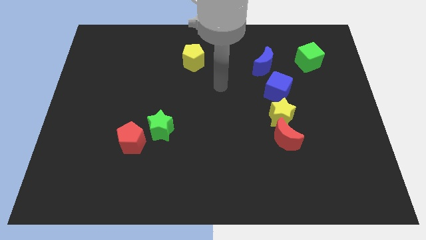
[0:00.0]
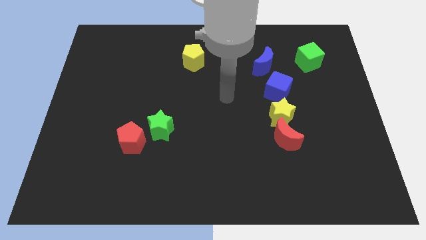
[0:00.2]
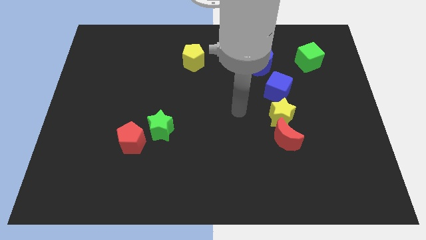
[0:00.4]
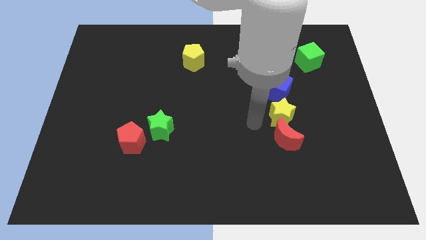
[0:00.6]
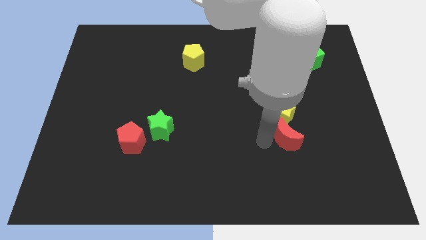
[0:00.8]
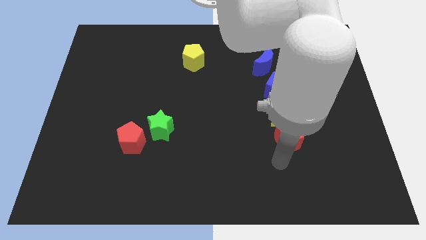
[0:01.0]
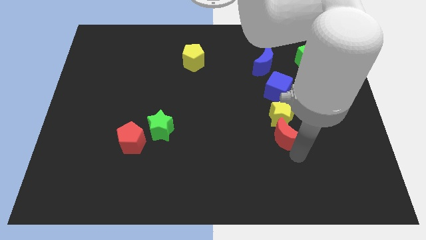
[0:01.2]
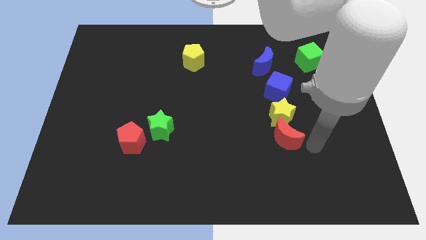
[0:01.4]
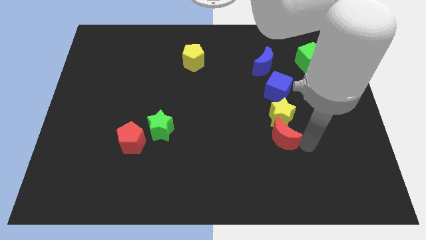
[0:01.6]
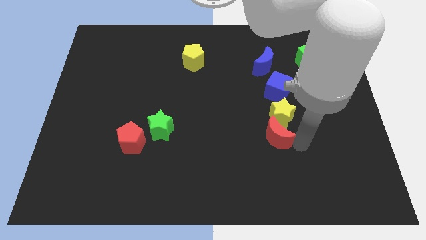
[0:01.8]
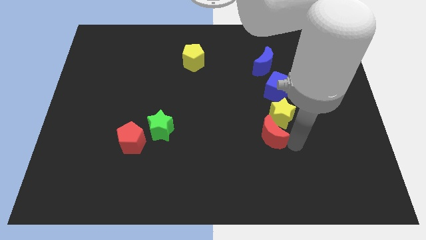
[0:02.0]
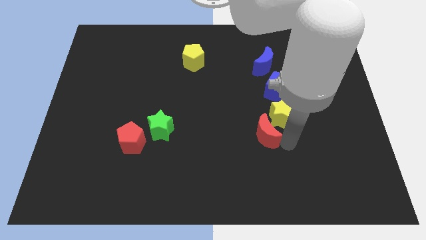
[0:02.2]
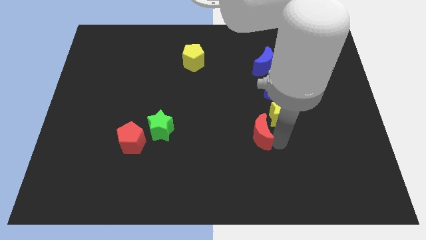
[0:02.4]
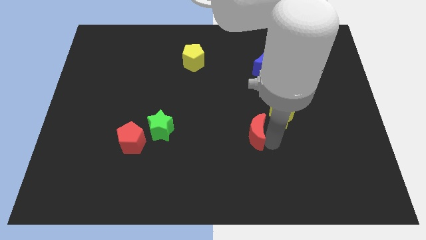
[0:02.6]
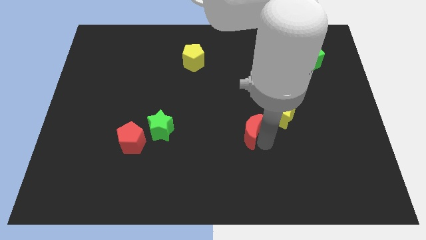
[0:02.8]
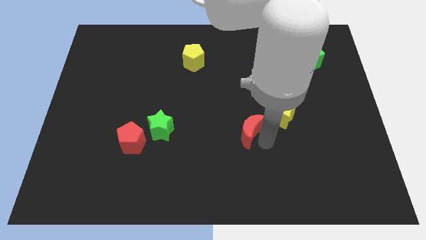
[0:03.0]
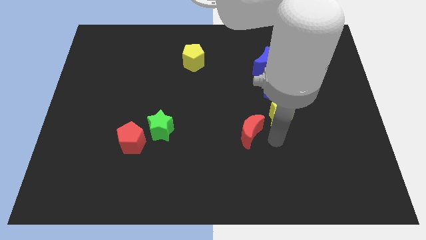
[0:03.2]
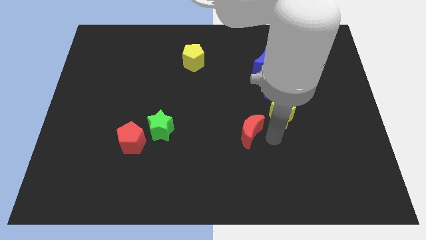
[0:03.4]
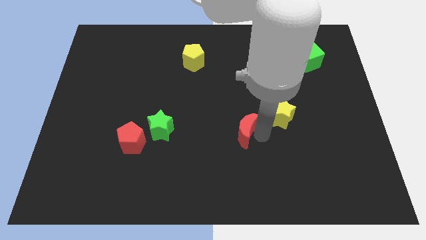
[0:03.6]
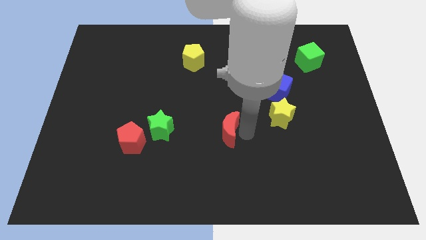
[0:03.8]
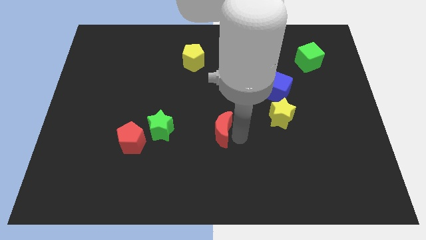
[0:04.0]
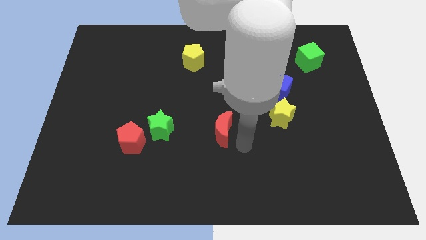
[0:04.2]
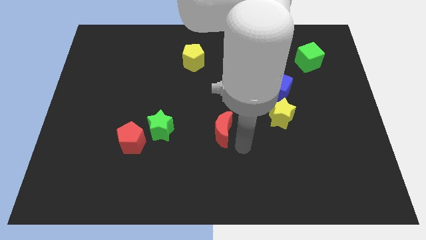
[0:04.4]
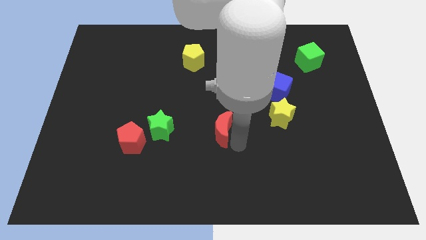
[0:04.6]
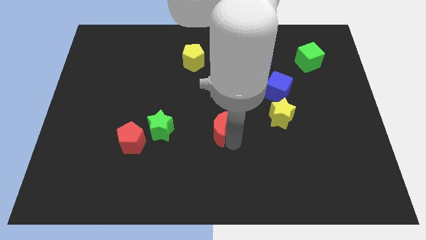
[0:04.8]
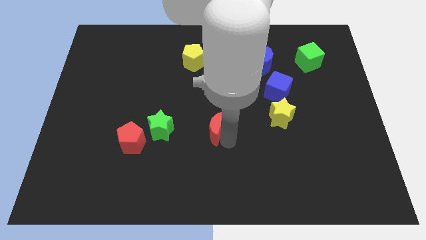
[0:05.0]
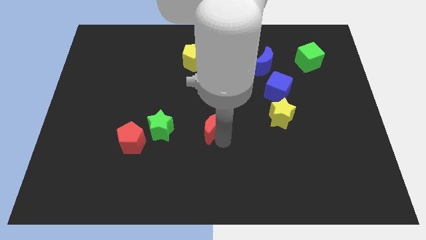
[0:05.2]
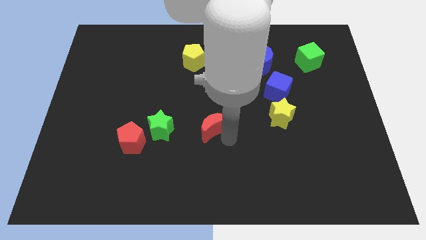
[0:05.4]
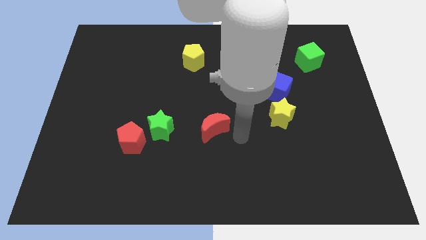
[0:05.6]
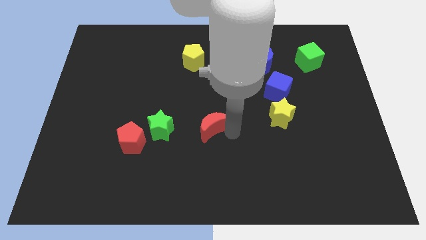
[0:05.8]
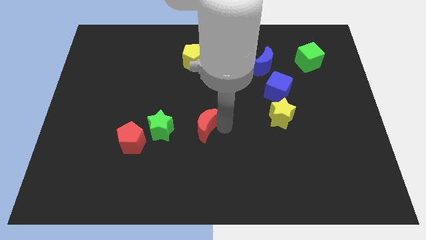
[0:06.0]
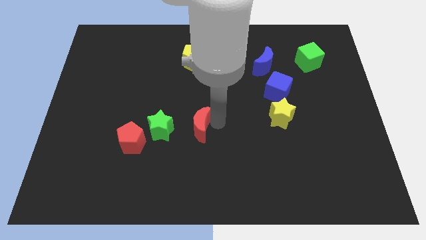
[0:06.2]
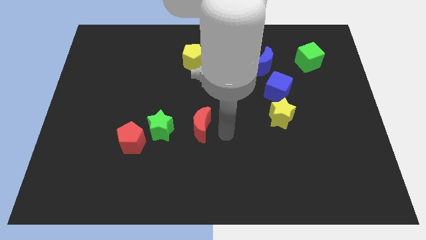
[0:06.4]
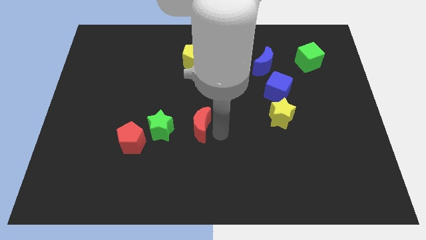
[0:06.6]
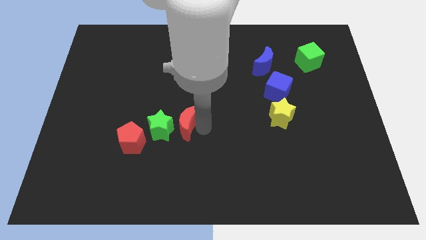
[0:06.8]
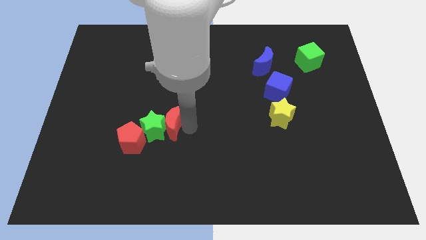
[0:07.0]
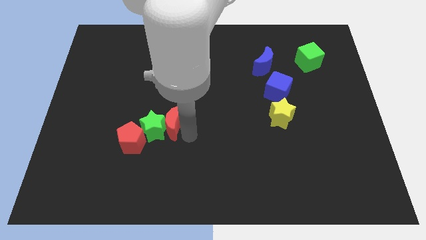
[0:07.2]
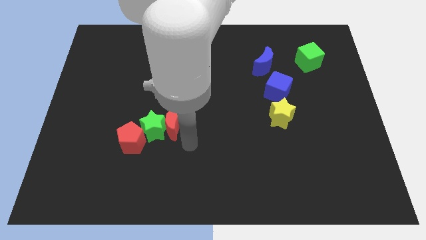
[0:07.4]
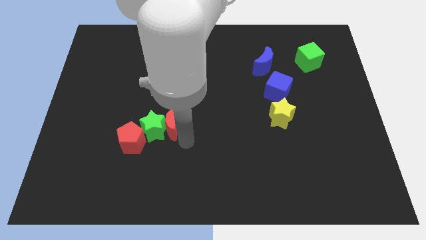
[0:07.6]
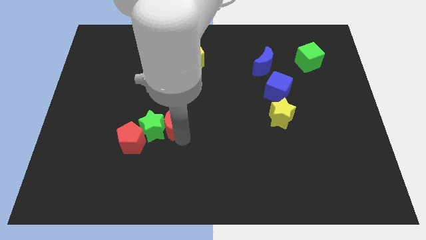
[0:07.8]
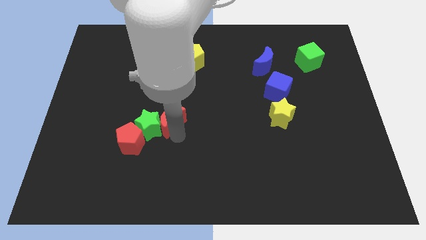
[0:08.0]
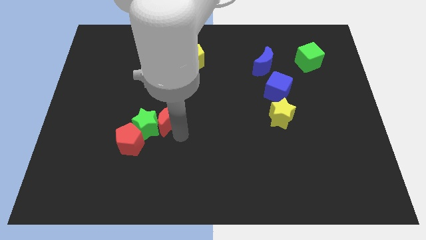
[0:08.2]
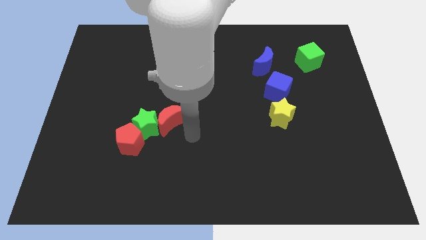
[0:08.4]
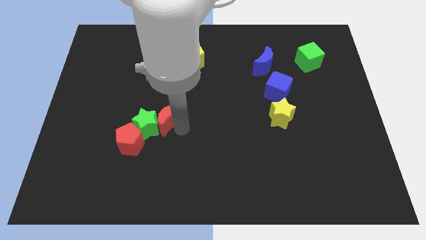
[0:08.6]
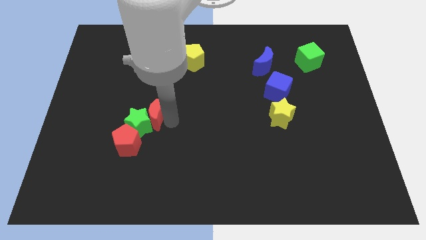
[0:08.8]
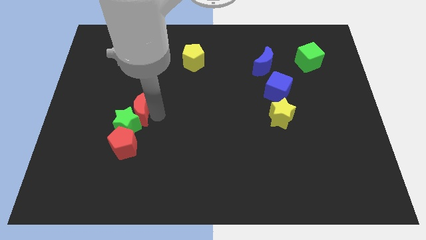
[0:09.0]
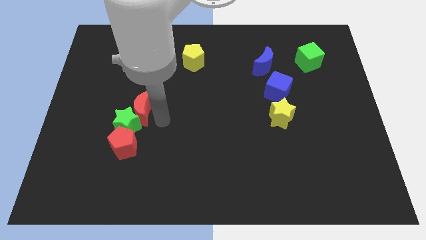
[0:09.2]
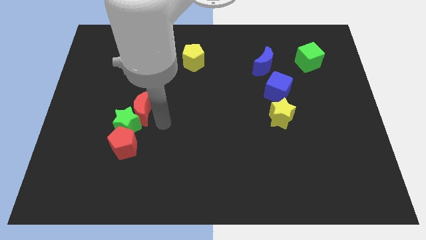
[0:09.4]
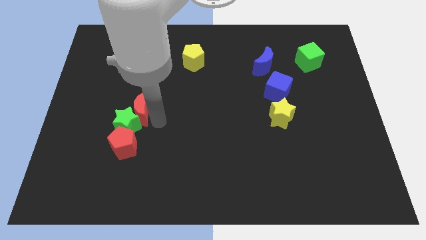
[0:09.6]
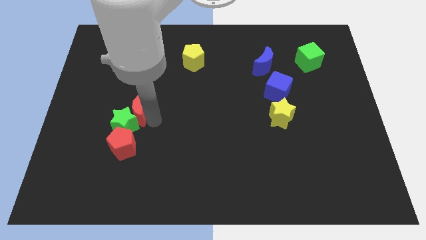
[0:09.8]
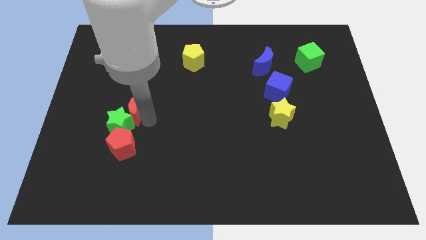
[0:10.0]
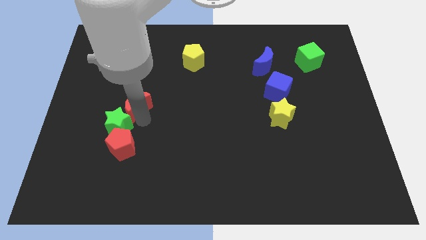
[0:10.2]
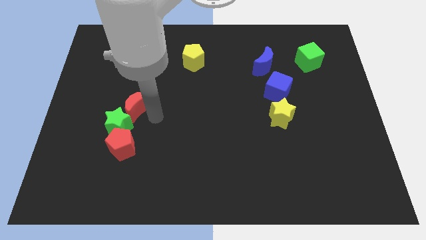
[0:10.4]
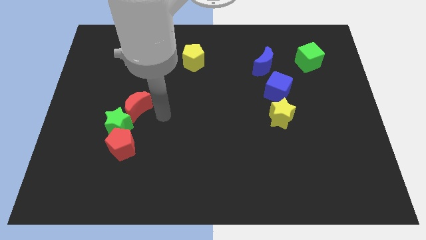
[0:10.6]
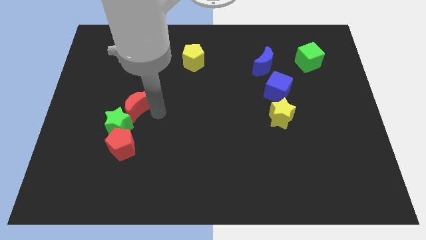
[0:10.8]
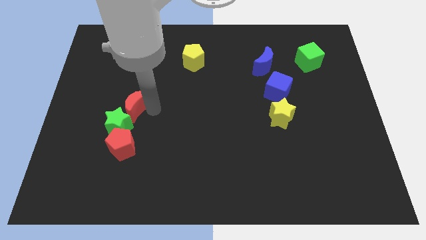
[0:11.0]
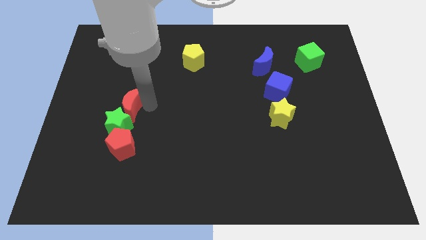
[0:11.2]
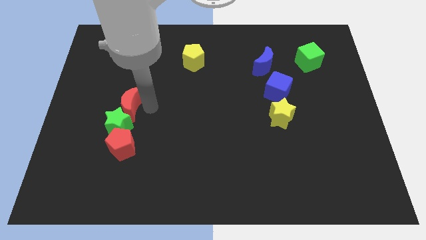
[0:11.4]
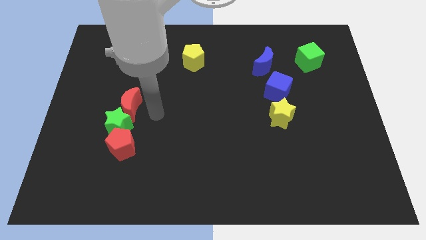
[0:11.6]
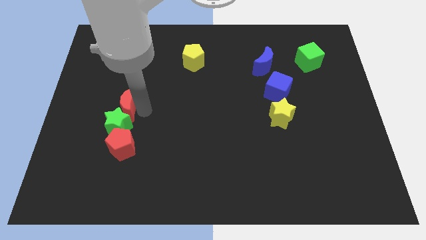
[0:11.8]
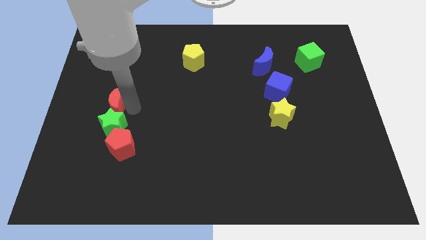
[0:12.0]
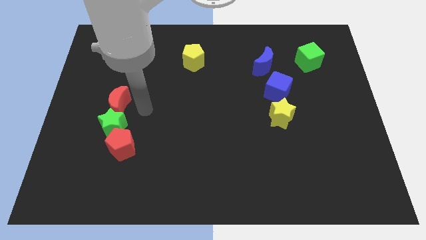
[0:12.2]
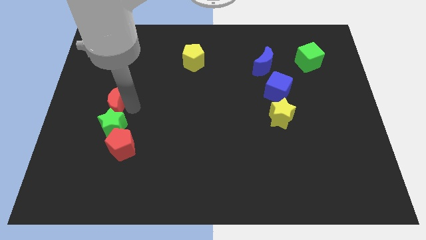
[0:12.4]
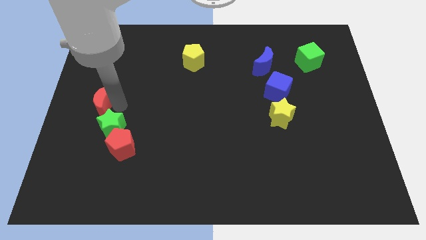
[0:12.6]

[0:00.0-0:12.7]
put the red moon to the left side of the board

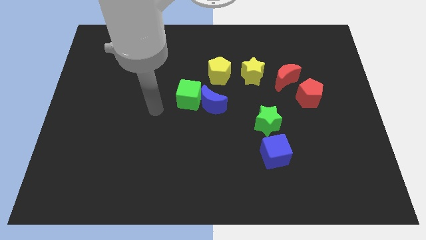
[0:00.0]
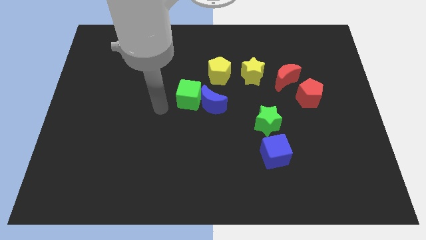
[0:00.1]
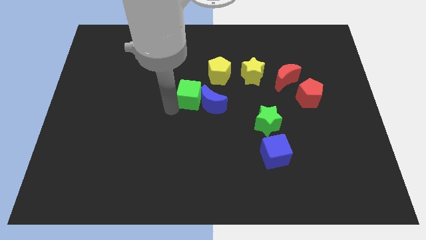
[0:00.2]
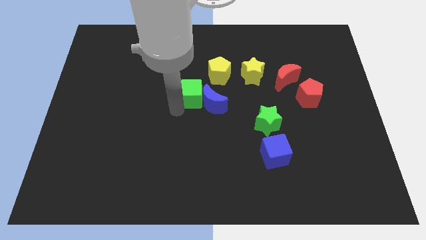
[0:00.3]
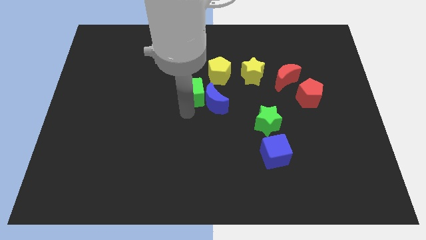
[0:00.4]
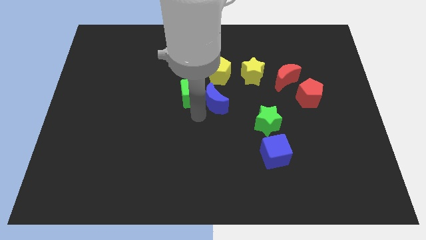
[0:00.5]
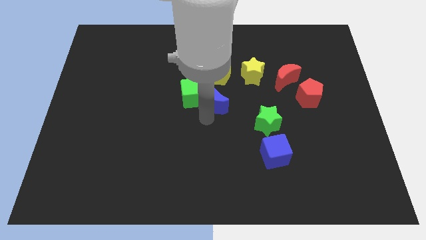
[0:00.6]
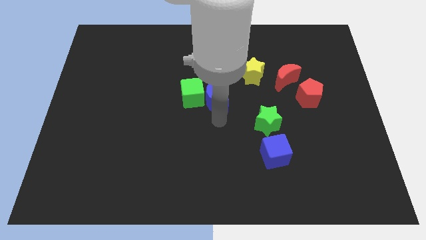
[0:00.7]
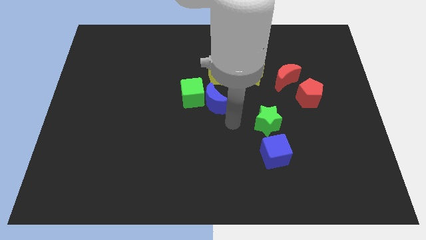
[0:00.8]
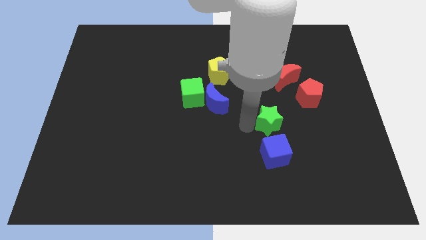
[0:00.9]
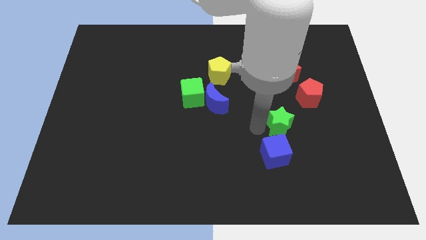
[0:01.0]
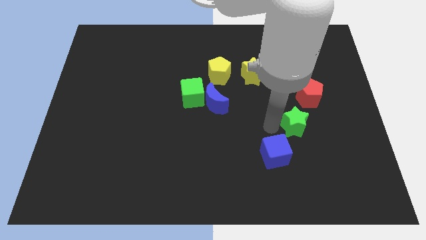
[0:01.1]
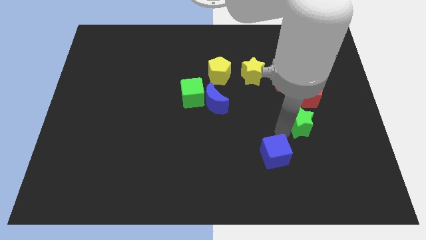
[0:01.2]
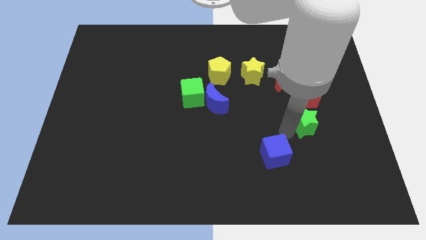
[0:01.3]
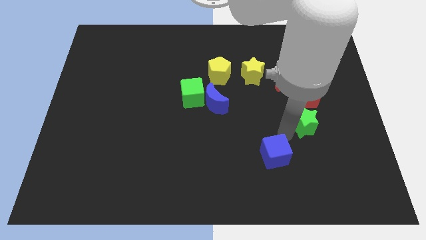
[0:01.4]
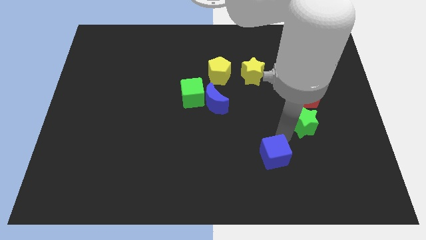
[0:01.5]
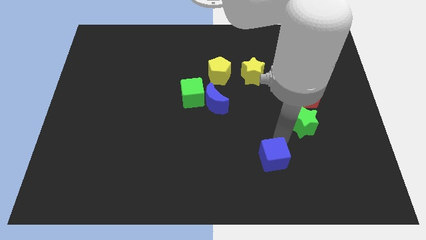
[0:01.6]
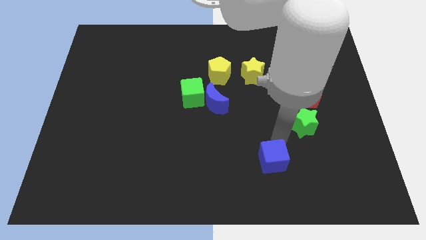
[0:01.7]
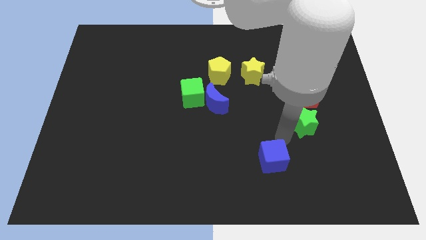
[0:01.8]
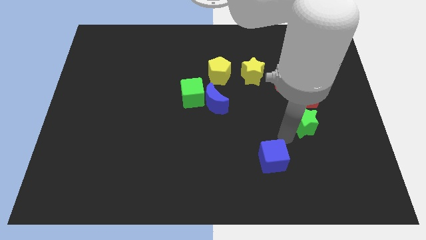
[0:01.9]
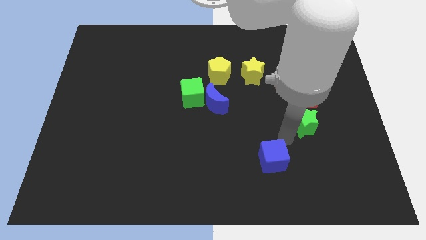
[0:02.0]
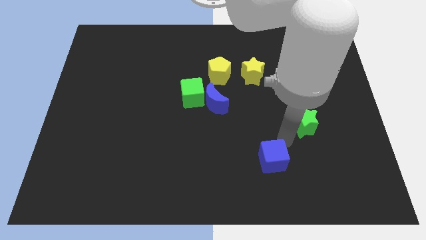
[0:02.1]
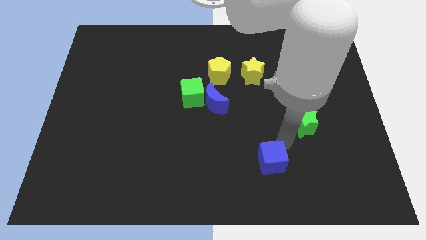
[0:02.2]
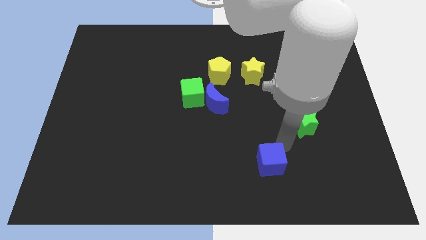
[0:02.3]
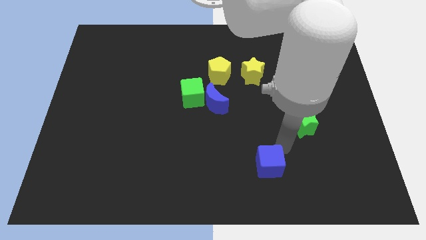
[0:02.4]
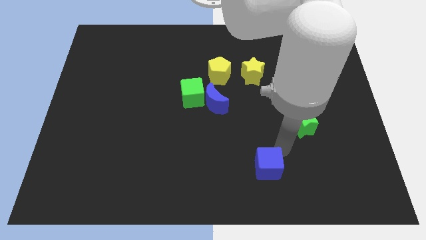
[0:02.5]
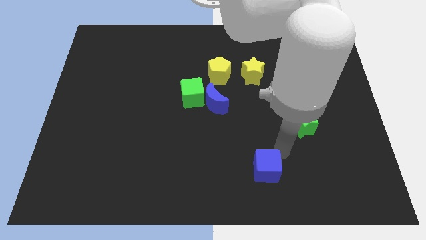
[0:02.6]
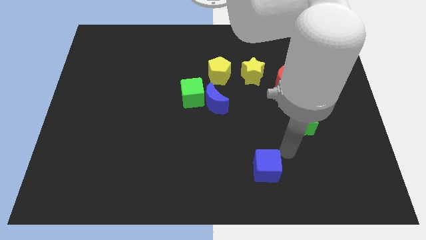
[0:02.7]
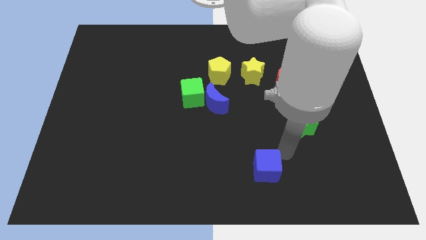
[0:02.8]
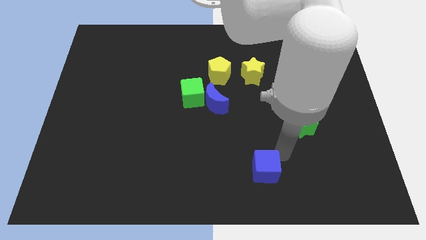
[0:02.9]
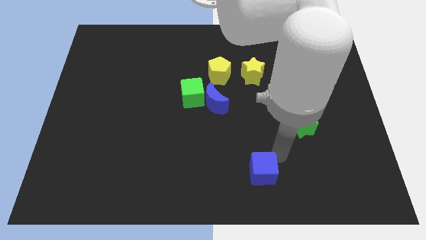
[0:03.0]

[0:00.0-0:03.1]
move the blue cube to the bottom side
